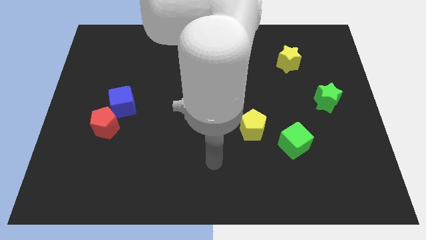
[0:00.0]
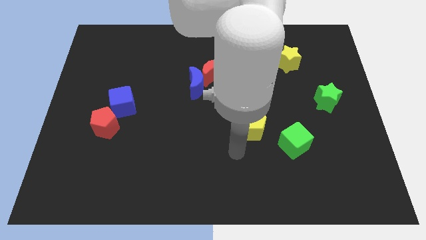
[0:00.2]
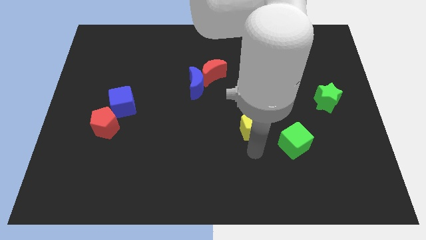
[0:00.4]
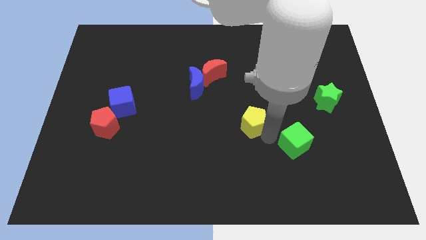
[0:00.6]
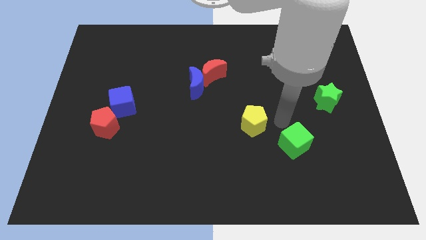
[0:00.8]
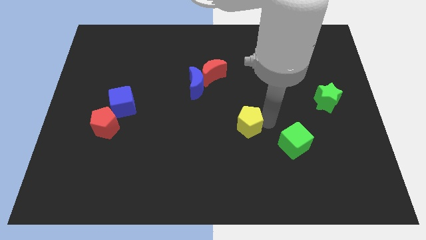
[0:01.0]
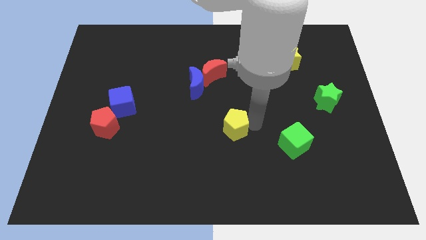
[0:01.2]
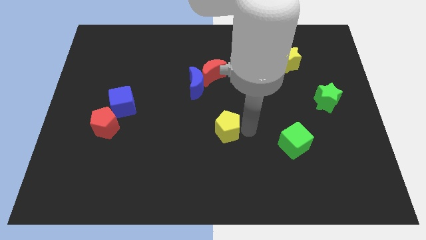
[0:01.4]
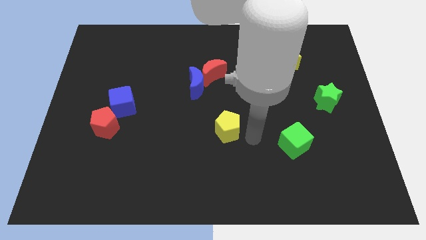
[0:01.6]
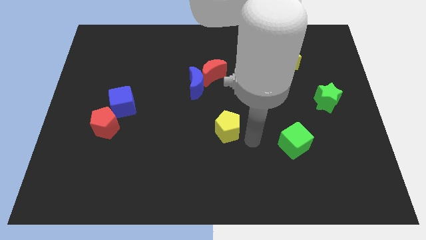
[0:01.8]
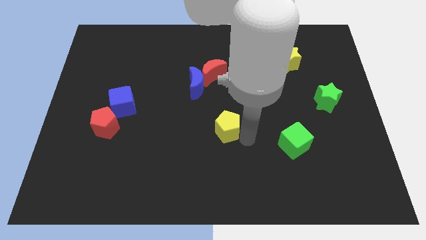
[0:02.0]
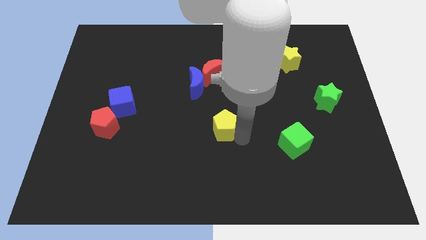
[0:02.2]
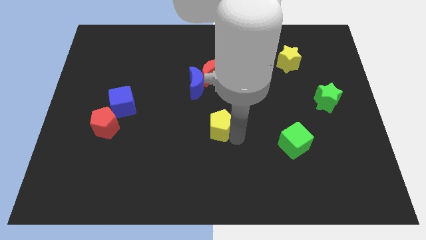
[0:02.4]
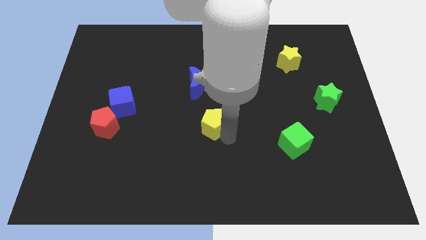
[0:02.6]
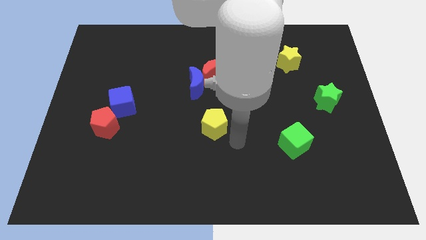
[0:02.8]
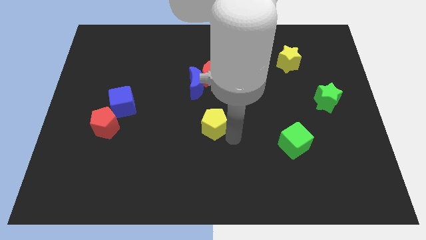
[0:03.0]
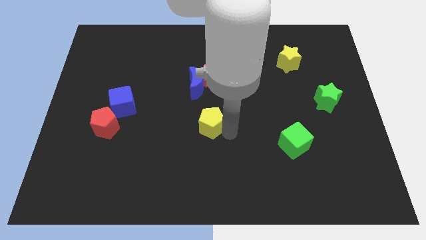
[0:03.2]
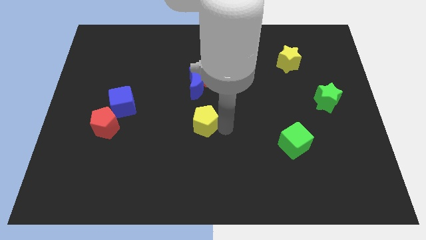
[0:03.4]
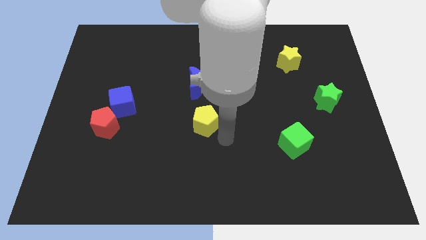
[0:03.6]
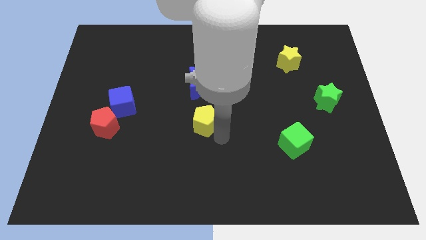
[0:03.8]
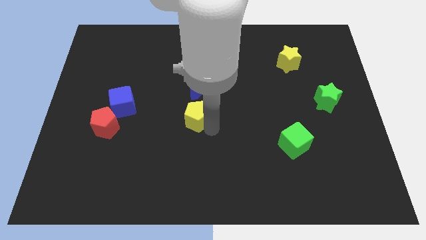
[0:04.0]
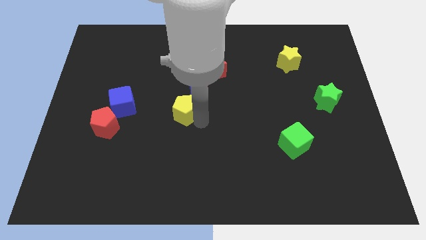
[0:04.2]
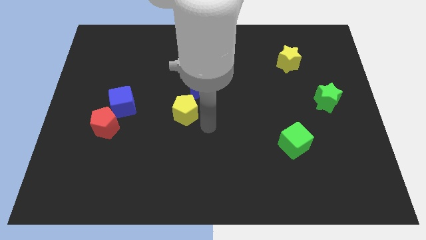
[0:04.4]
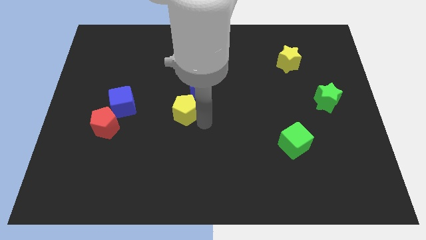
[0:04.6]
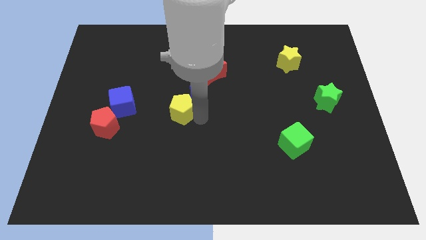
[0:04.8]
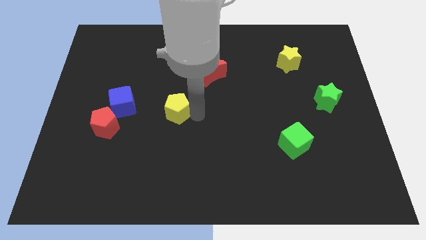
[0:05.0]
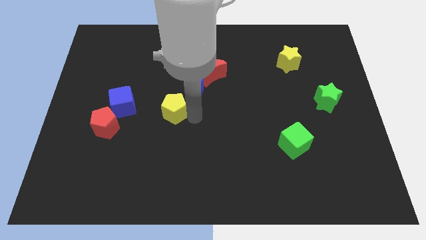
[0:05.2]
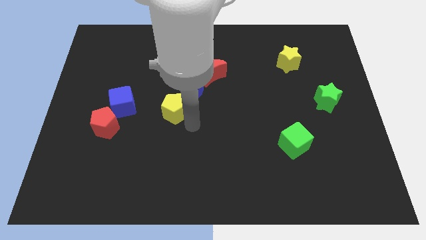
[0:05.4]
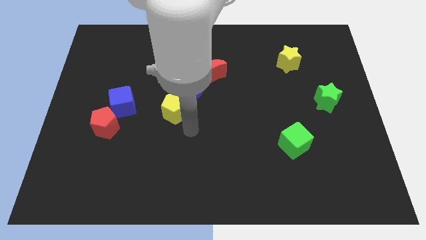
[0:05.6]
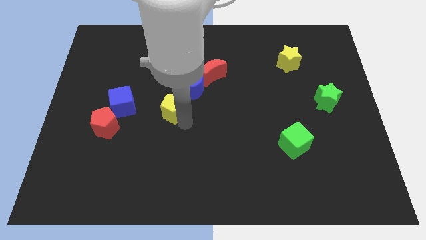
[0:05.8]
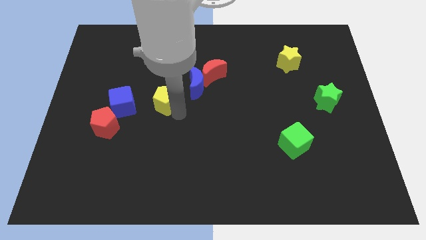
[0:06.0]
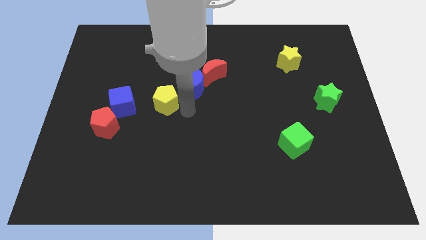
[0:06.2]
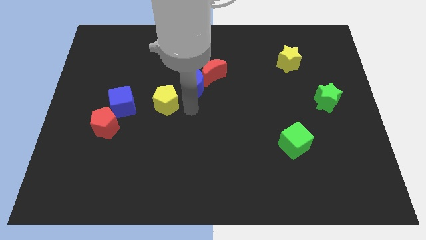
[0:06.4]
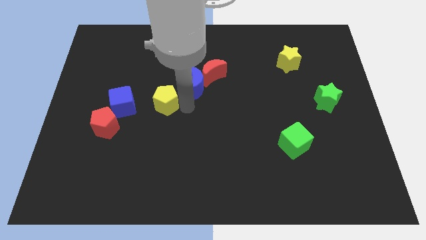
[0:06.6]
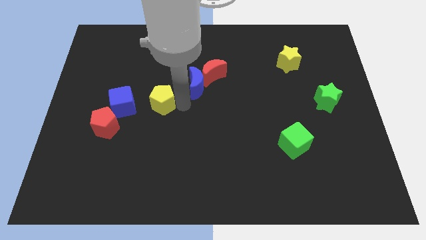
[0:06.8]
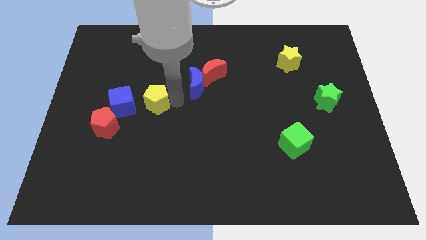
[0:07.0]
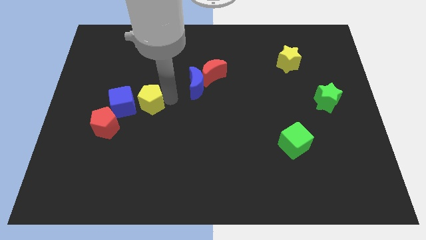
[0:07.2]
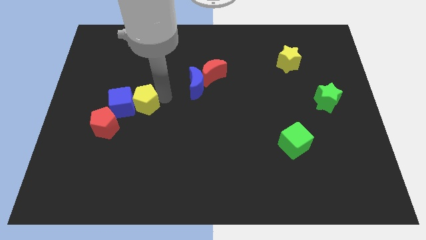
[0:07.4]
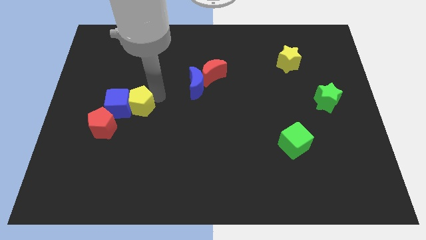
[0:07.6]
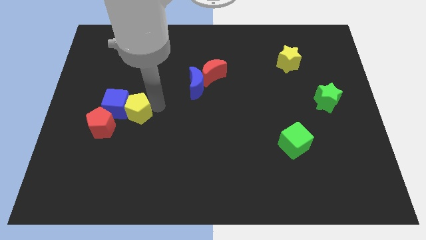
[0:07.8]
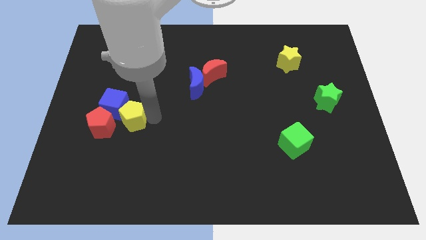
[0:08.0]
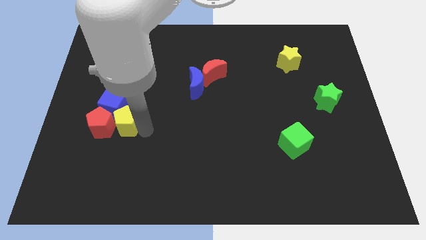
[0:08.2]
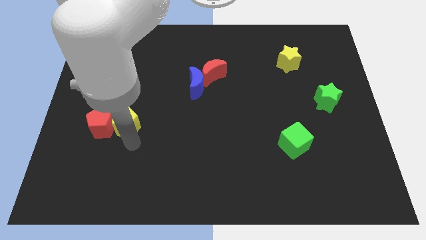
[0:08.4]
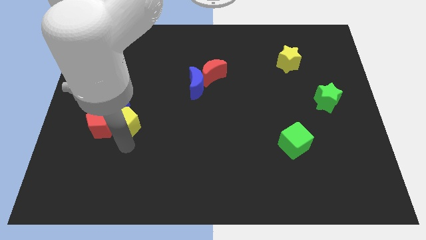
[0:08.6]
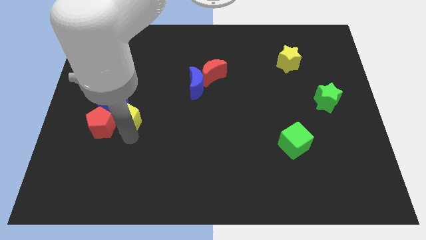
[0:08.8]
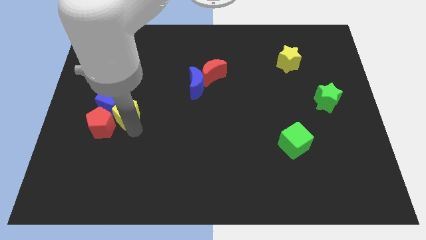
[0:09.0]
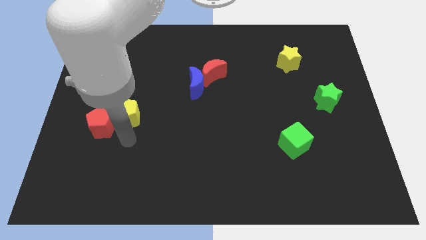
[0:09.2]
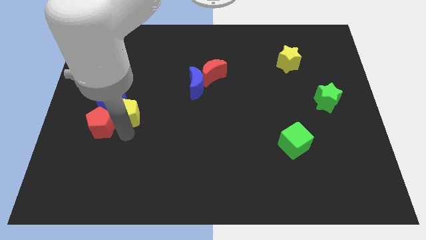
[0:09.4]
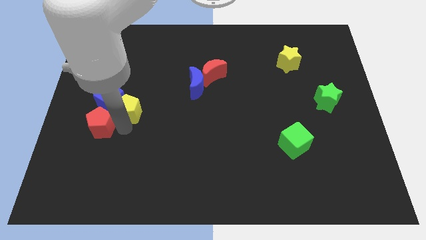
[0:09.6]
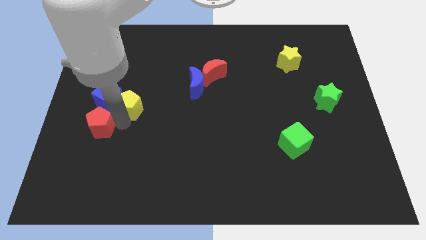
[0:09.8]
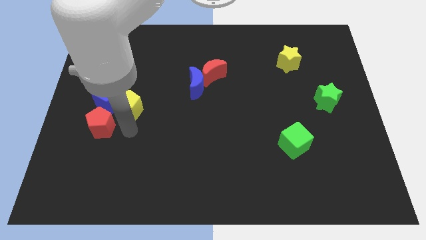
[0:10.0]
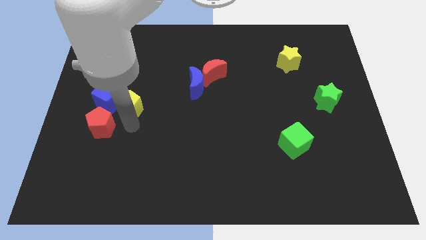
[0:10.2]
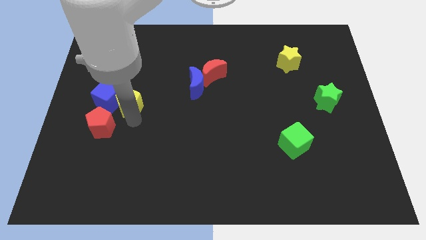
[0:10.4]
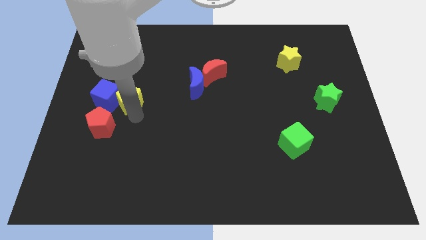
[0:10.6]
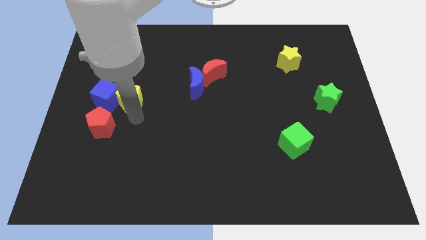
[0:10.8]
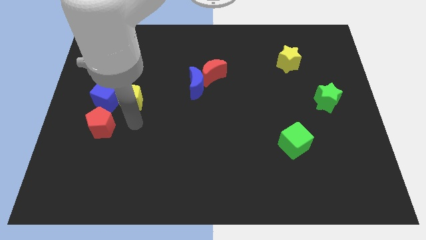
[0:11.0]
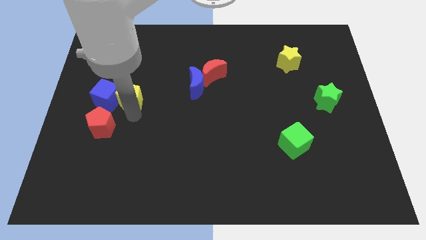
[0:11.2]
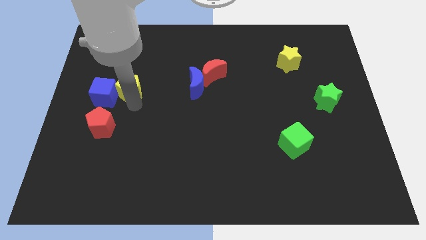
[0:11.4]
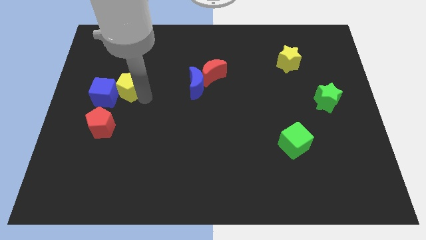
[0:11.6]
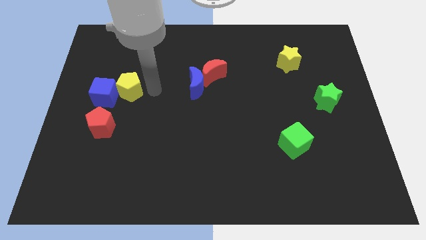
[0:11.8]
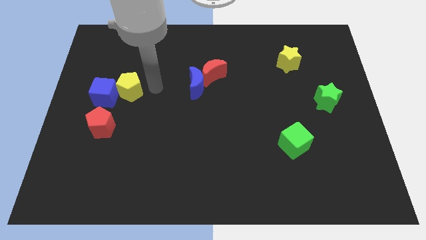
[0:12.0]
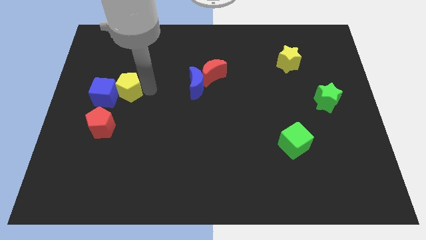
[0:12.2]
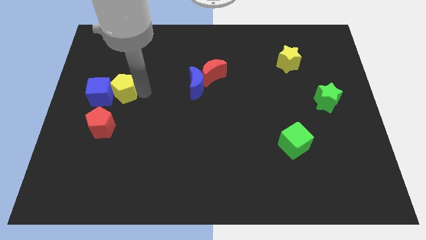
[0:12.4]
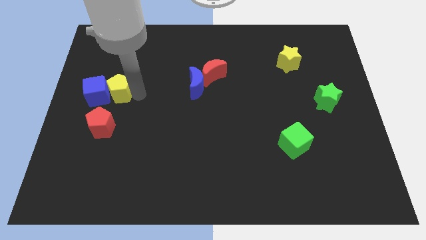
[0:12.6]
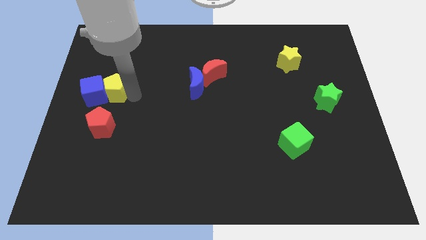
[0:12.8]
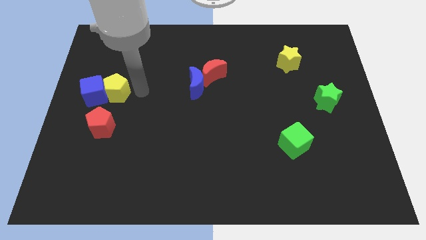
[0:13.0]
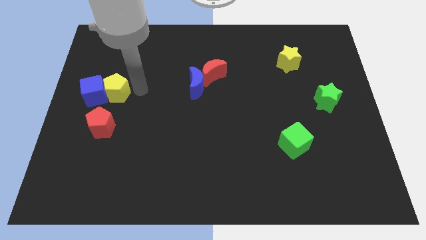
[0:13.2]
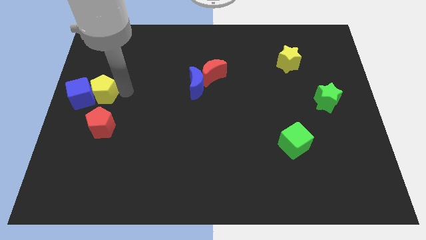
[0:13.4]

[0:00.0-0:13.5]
push the yellow pentagon to the left side of the board
